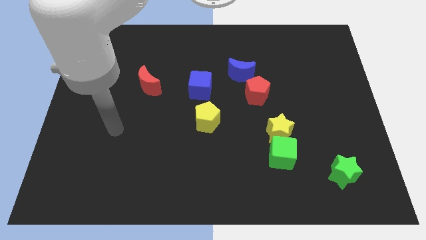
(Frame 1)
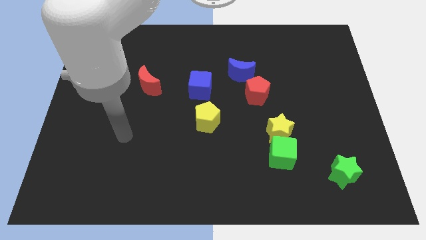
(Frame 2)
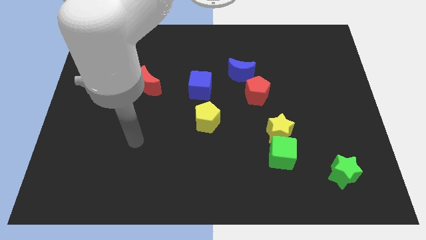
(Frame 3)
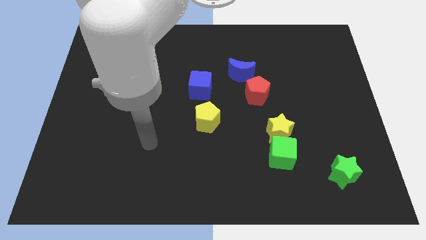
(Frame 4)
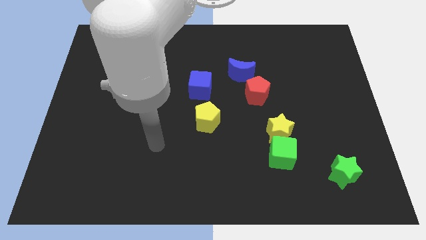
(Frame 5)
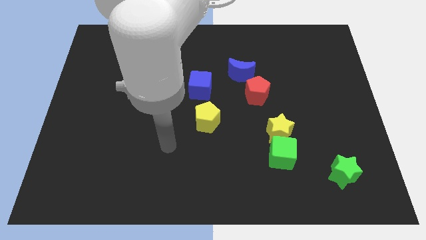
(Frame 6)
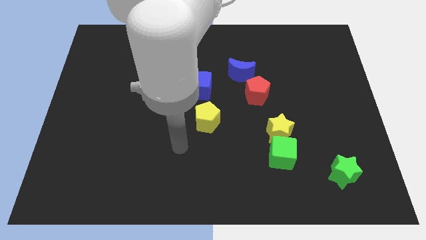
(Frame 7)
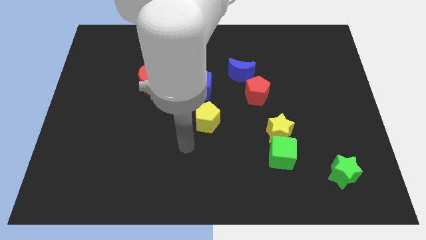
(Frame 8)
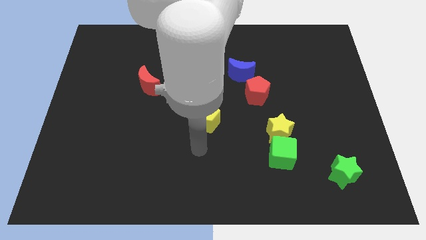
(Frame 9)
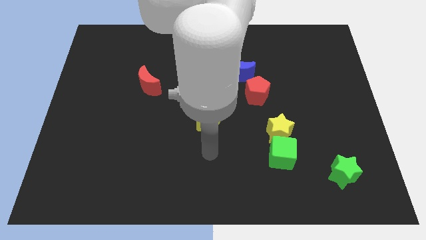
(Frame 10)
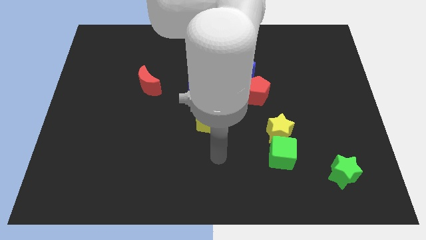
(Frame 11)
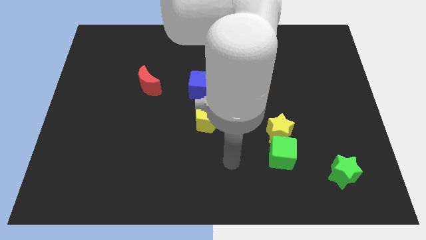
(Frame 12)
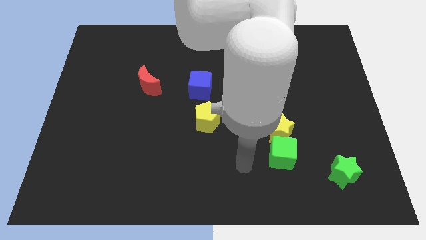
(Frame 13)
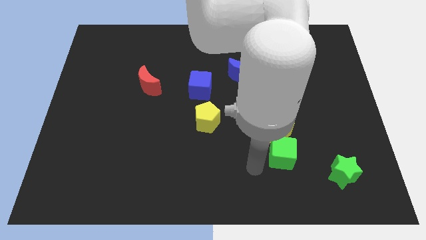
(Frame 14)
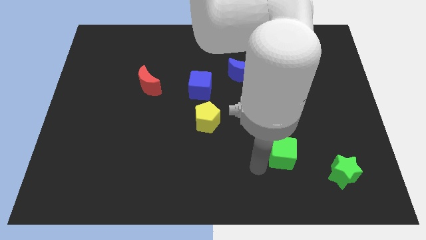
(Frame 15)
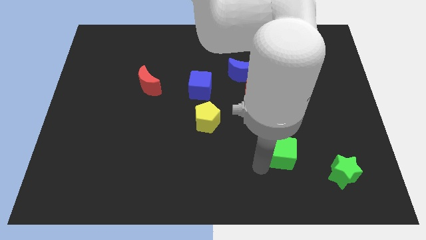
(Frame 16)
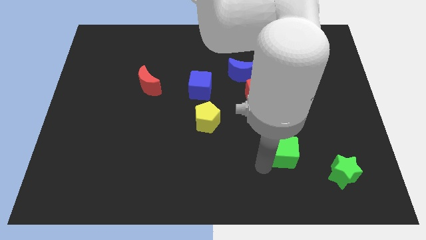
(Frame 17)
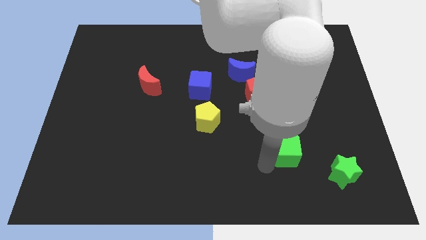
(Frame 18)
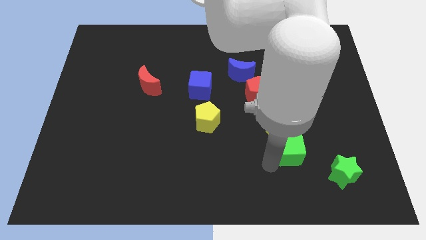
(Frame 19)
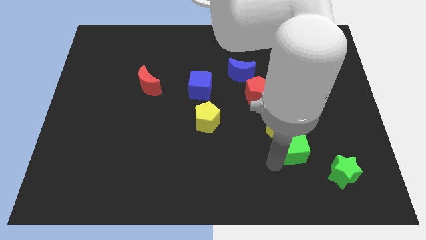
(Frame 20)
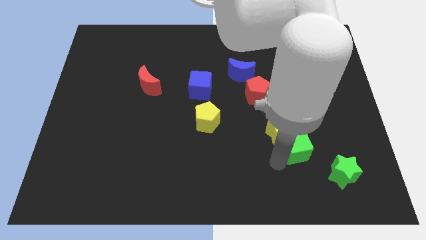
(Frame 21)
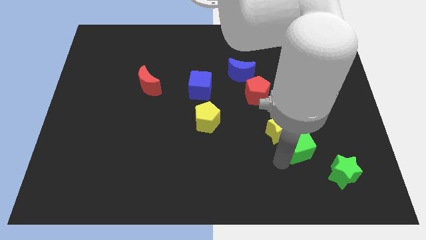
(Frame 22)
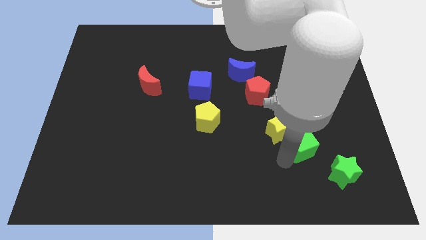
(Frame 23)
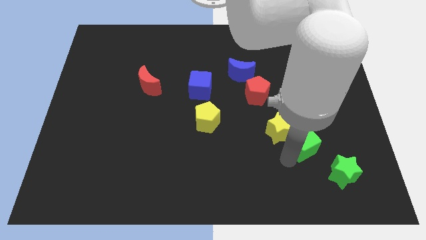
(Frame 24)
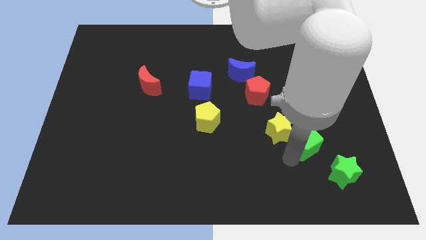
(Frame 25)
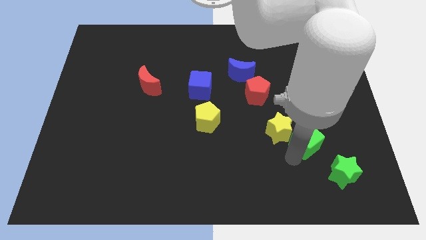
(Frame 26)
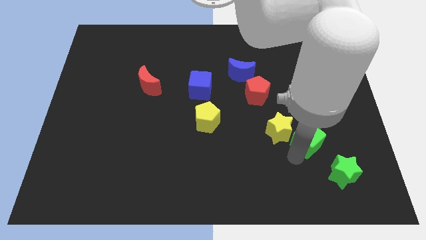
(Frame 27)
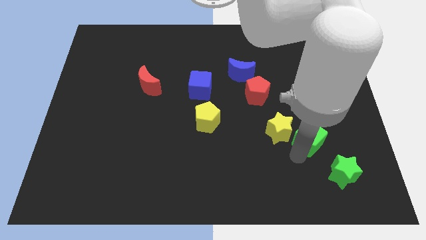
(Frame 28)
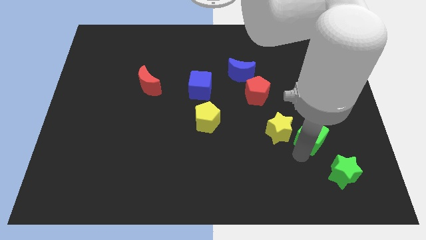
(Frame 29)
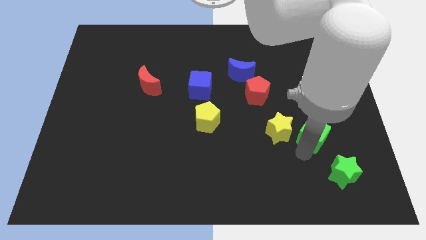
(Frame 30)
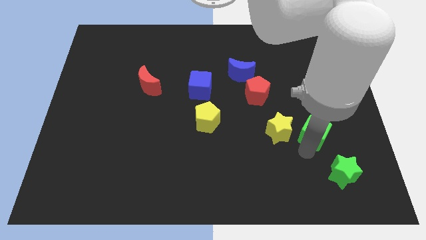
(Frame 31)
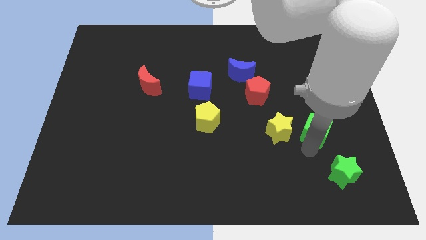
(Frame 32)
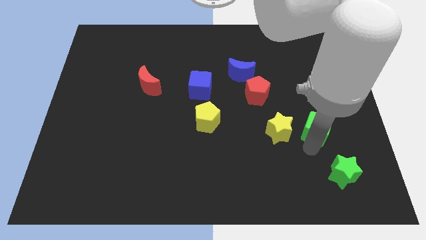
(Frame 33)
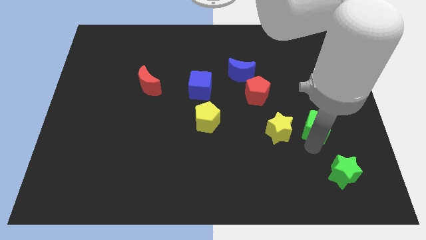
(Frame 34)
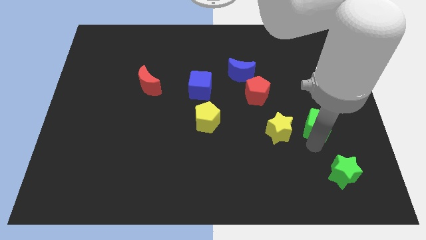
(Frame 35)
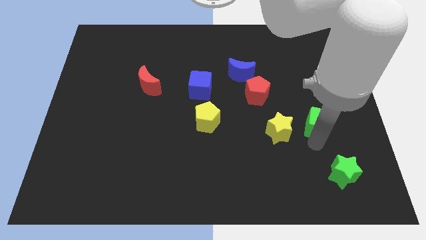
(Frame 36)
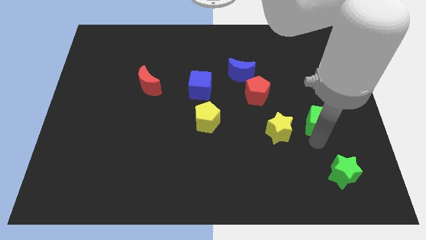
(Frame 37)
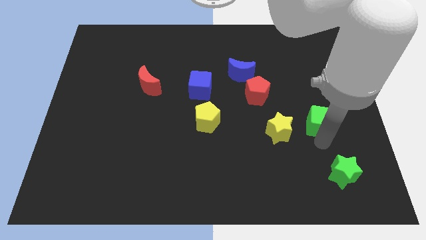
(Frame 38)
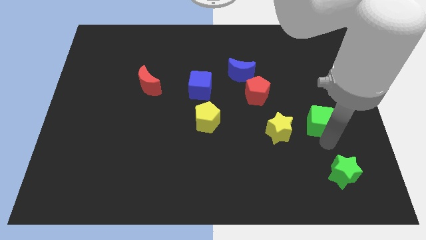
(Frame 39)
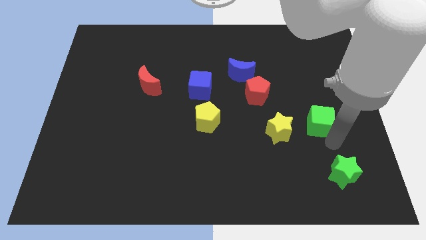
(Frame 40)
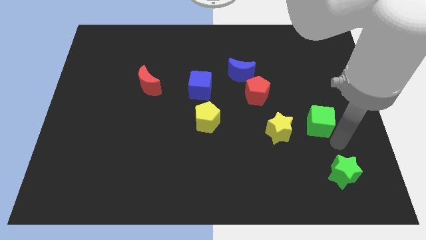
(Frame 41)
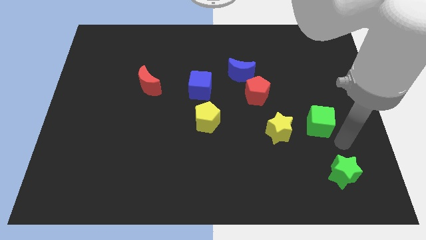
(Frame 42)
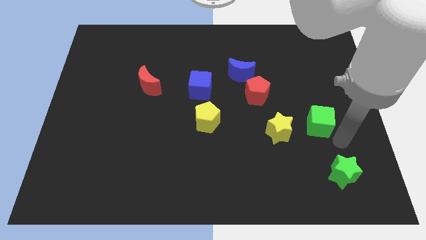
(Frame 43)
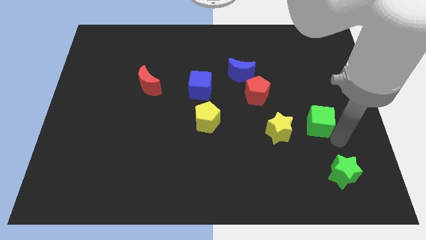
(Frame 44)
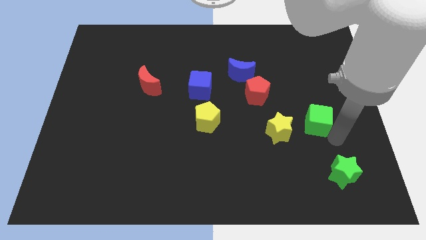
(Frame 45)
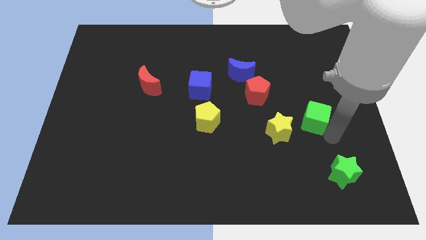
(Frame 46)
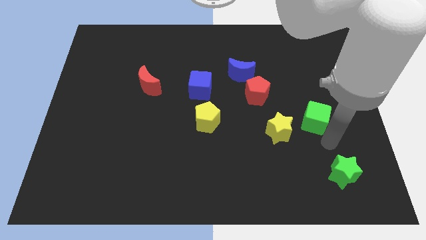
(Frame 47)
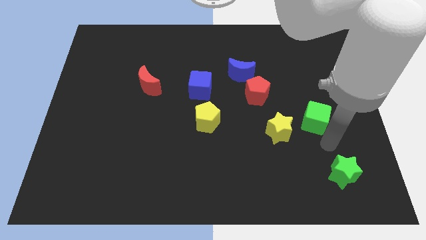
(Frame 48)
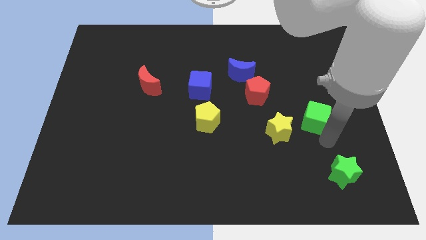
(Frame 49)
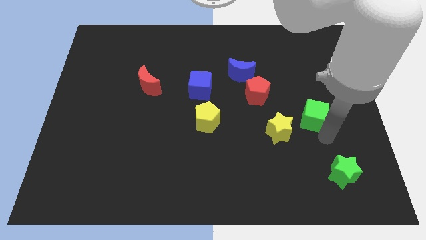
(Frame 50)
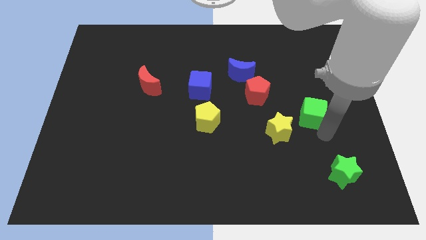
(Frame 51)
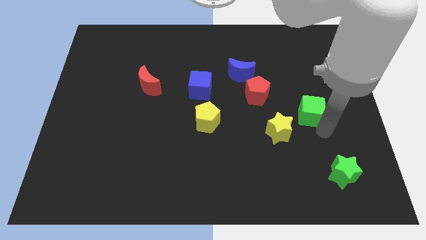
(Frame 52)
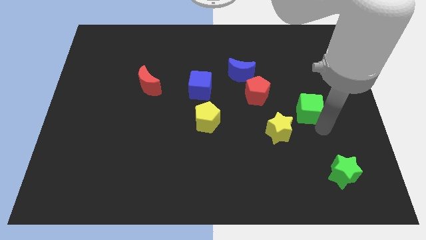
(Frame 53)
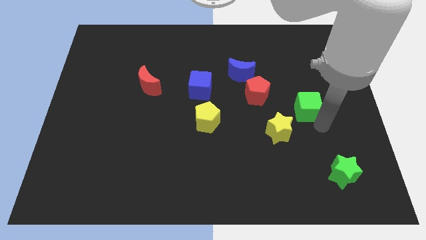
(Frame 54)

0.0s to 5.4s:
push the green cube right of the red pentagon

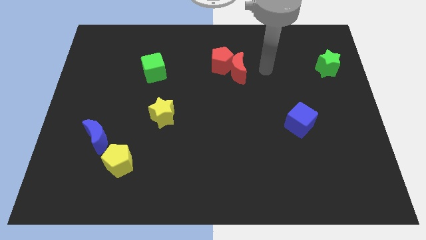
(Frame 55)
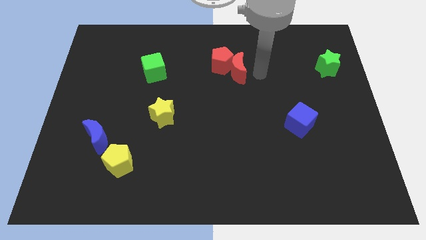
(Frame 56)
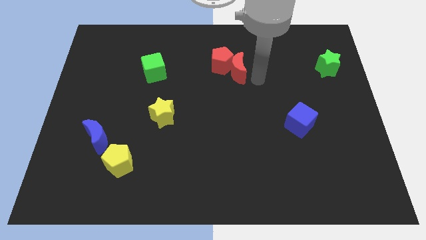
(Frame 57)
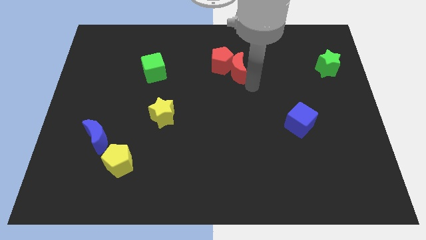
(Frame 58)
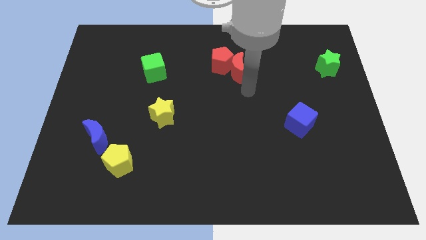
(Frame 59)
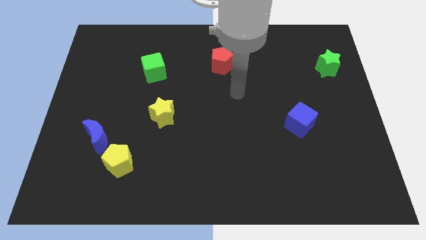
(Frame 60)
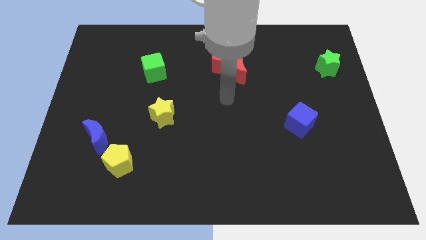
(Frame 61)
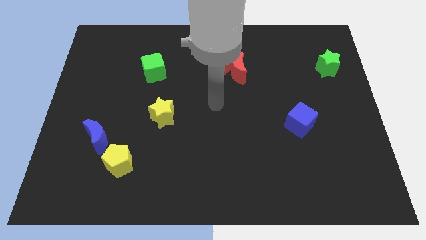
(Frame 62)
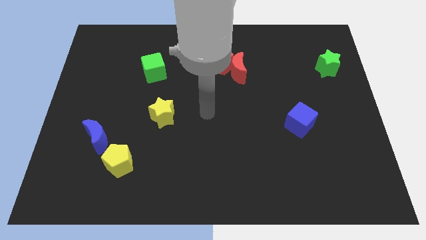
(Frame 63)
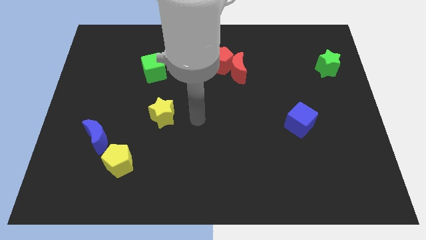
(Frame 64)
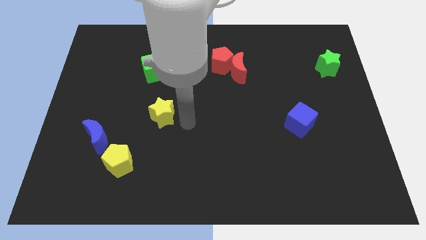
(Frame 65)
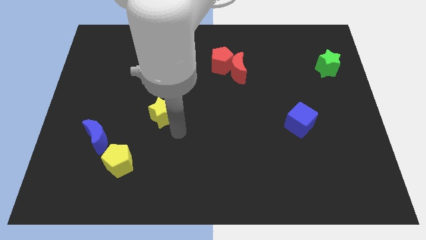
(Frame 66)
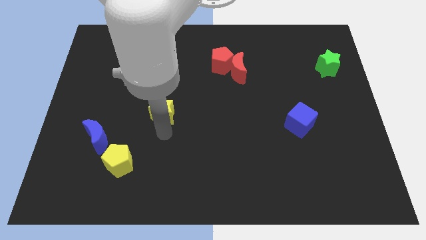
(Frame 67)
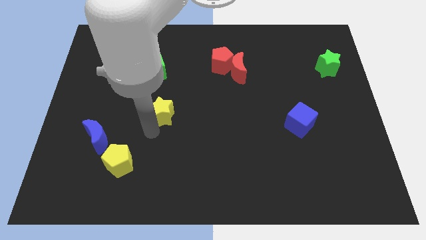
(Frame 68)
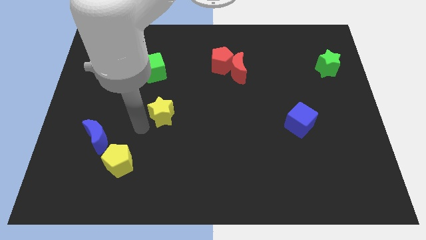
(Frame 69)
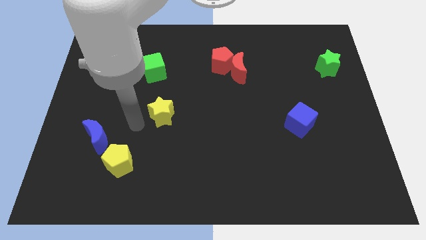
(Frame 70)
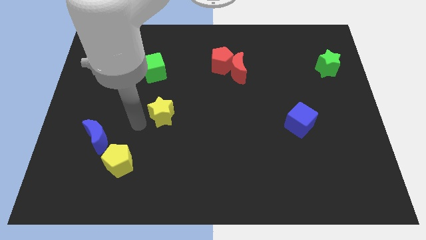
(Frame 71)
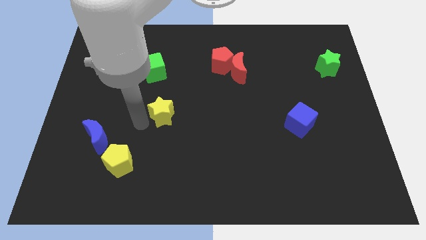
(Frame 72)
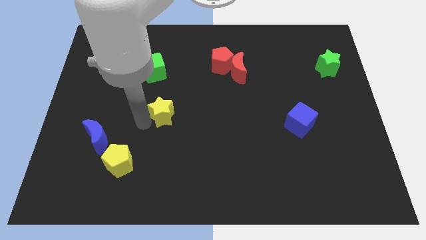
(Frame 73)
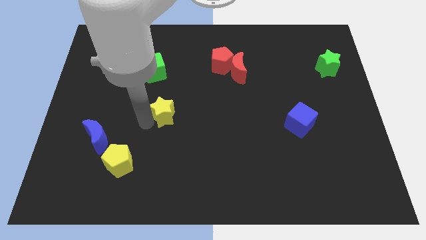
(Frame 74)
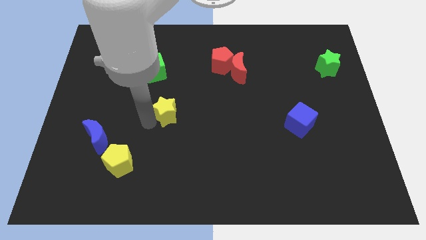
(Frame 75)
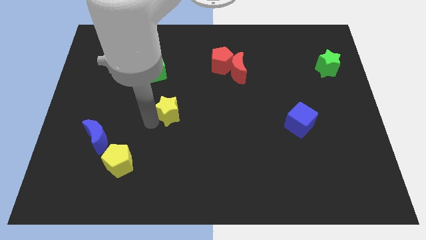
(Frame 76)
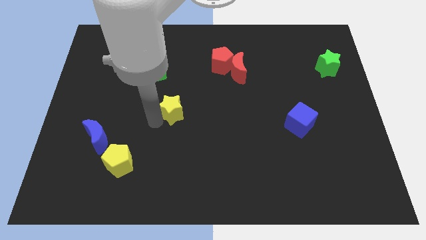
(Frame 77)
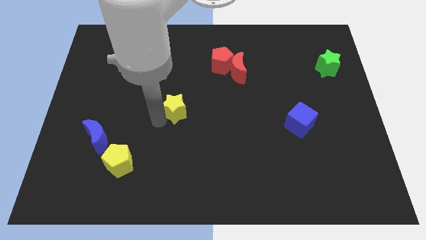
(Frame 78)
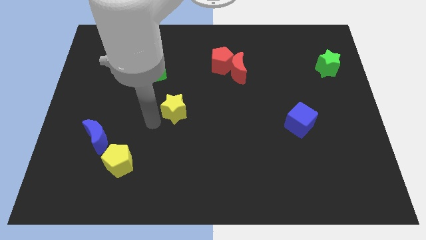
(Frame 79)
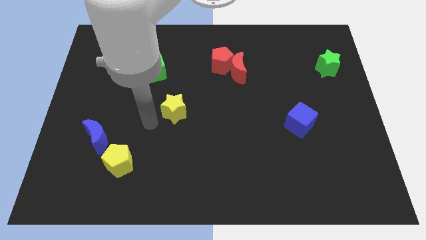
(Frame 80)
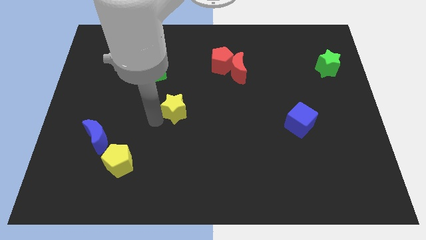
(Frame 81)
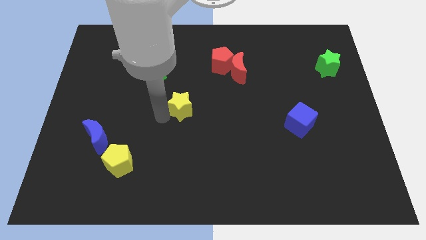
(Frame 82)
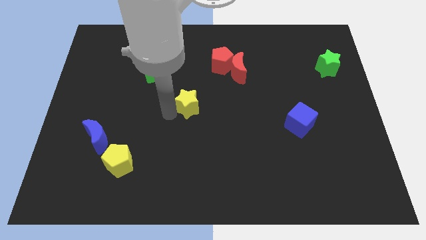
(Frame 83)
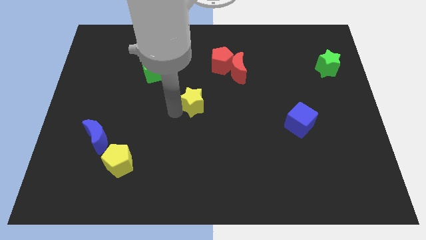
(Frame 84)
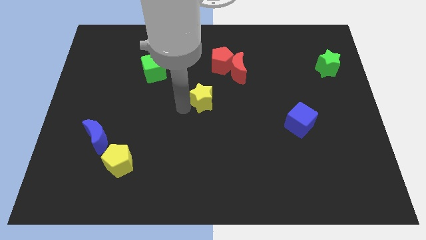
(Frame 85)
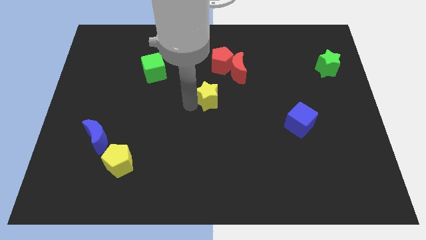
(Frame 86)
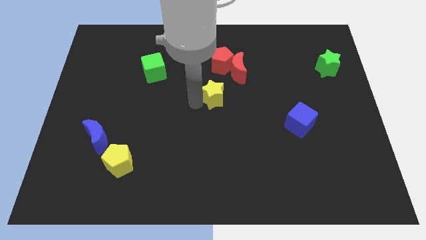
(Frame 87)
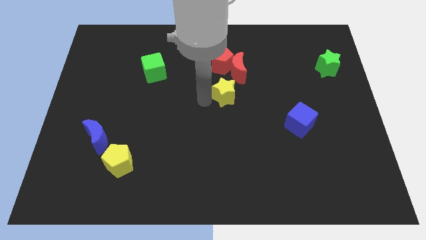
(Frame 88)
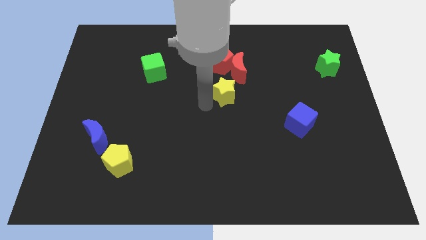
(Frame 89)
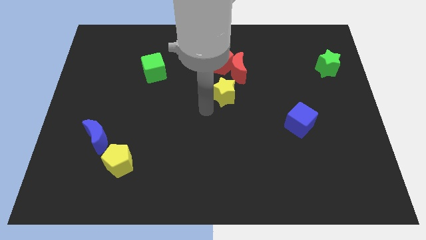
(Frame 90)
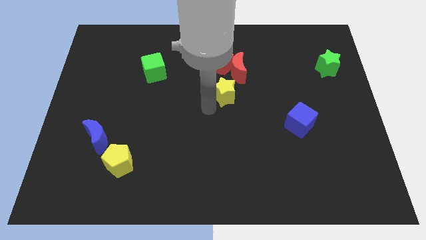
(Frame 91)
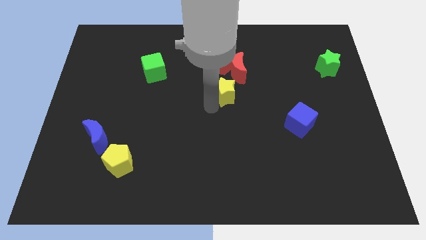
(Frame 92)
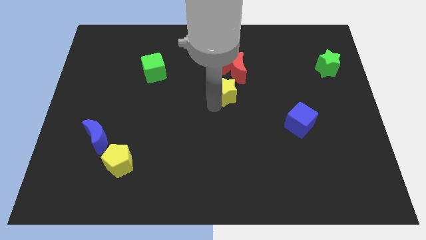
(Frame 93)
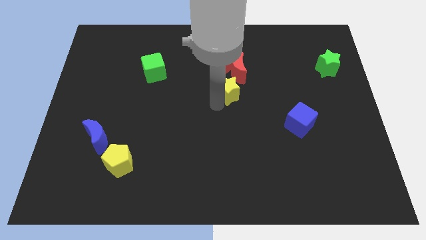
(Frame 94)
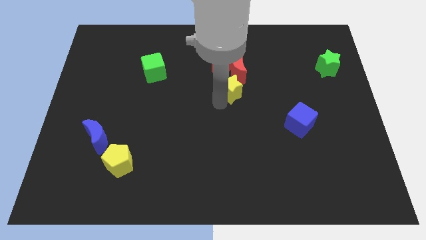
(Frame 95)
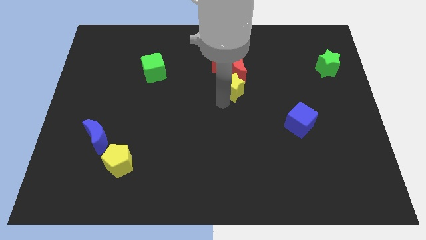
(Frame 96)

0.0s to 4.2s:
slide the yellow star to the bottom right of the red pentagon
